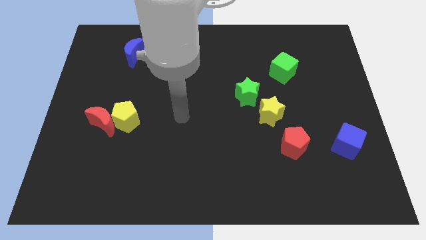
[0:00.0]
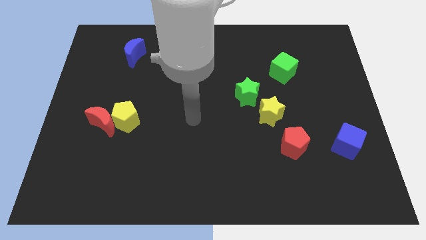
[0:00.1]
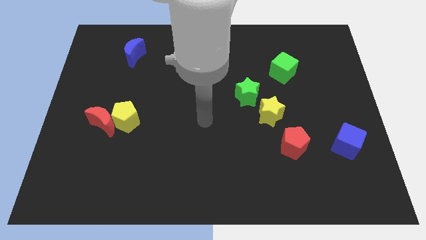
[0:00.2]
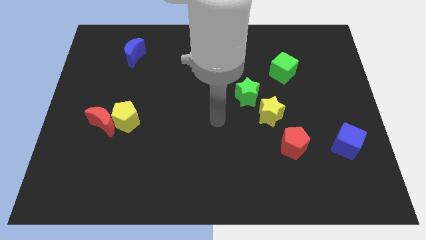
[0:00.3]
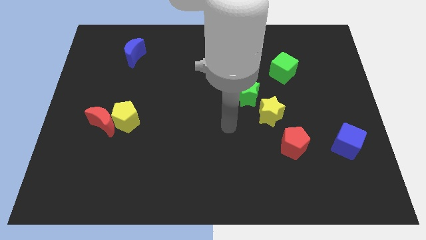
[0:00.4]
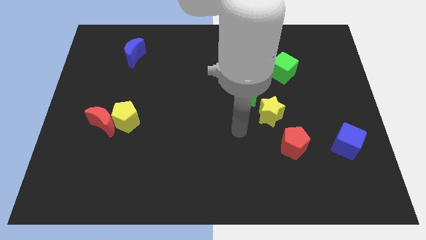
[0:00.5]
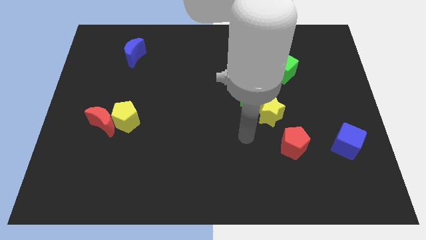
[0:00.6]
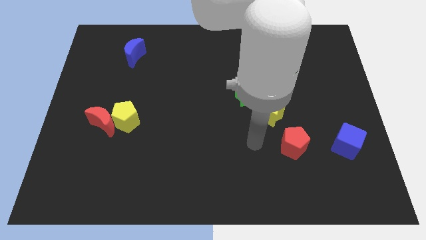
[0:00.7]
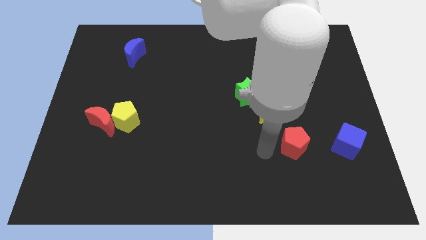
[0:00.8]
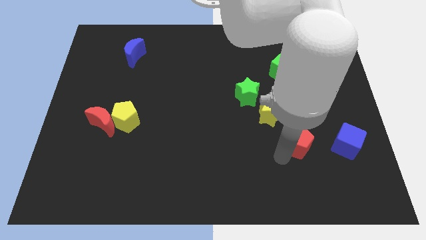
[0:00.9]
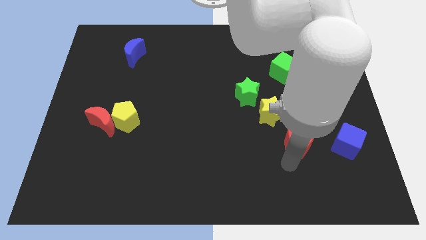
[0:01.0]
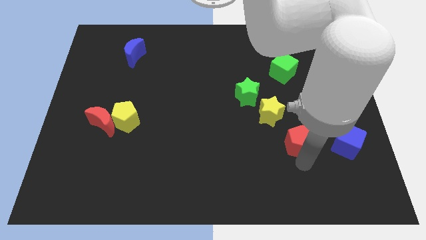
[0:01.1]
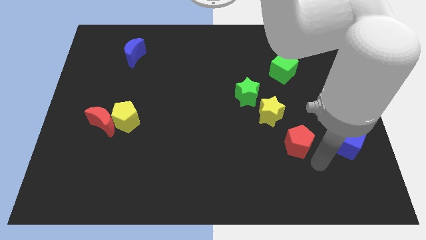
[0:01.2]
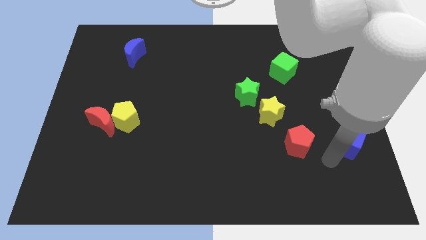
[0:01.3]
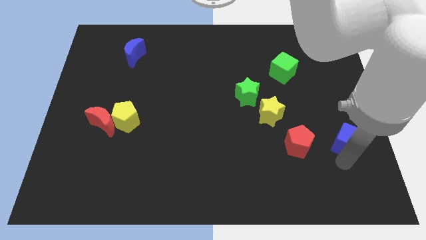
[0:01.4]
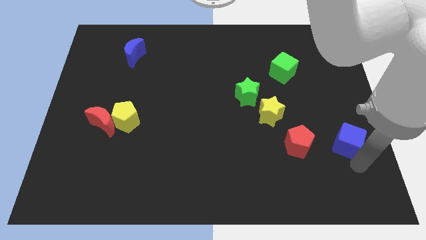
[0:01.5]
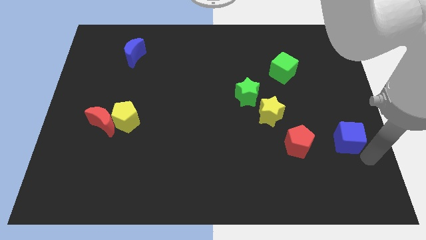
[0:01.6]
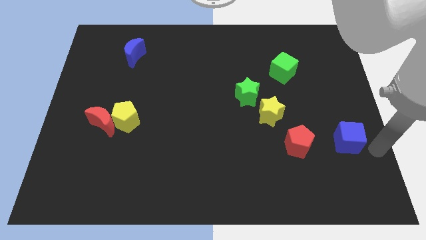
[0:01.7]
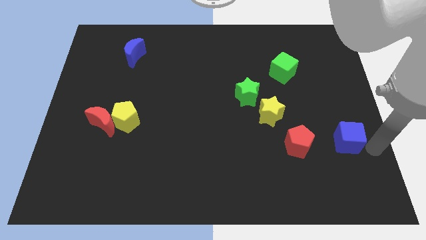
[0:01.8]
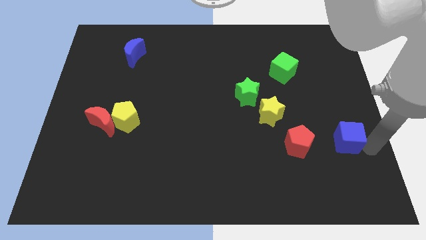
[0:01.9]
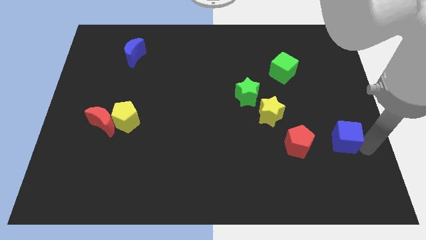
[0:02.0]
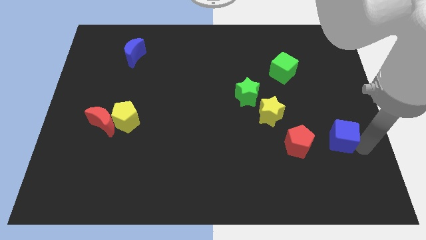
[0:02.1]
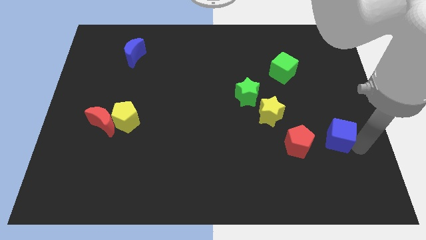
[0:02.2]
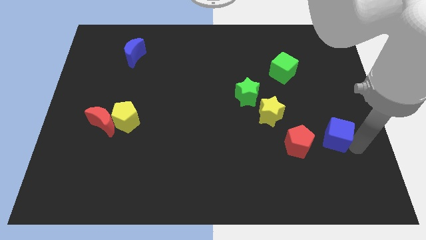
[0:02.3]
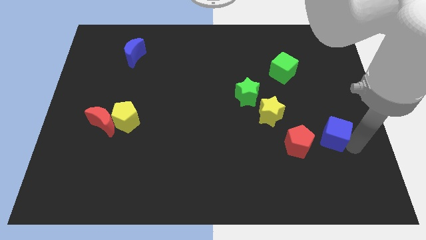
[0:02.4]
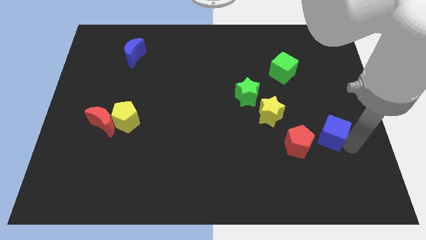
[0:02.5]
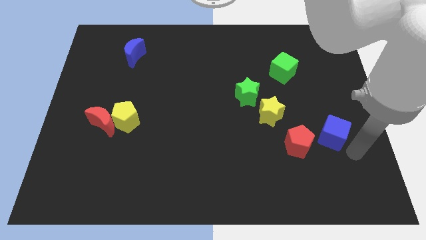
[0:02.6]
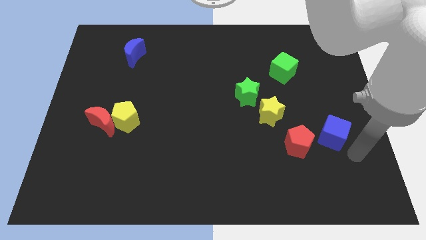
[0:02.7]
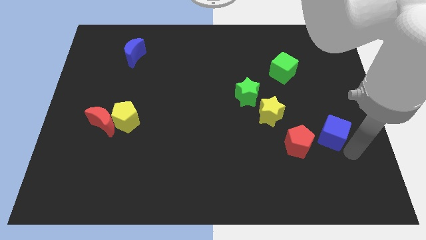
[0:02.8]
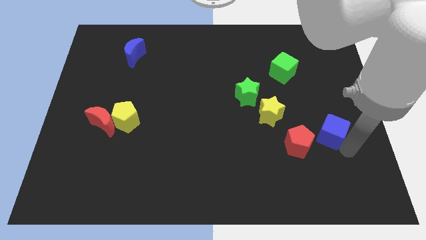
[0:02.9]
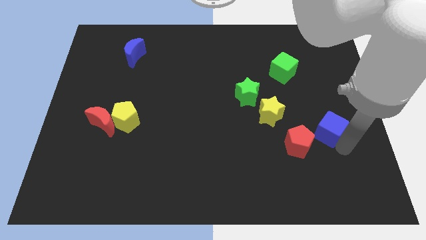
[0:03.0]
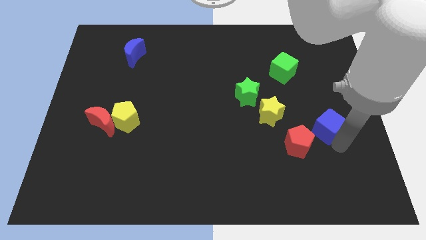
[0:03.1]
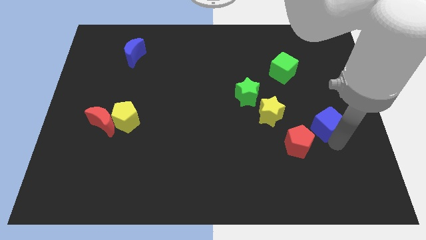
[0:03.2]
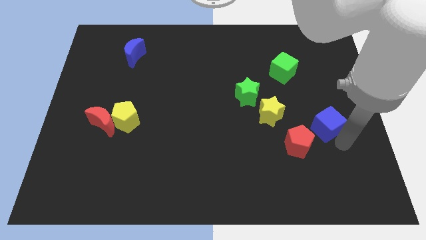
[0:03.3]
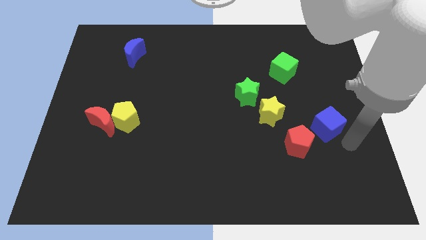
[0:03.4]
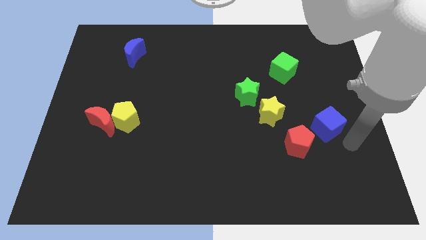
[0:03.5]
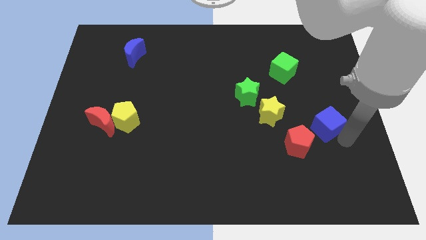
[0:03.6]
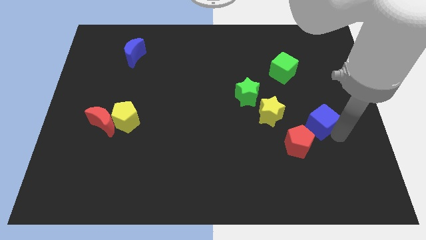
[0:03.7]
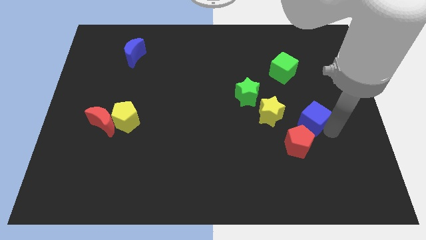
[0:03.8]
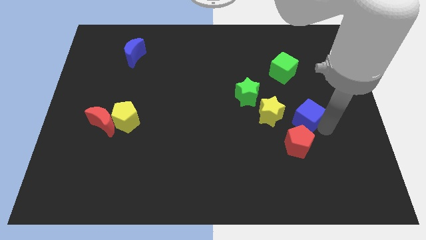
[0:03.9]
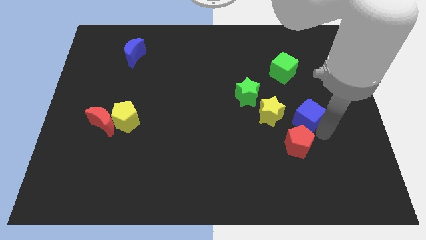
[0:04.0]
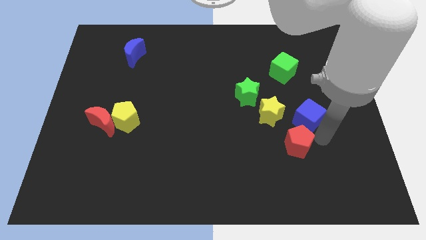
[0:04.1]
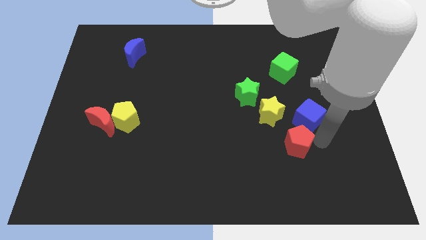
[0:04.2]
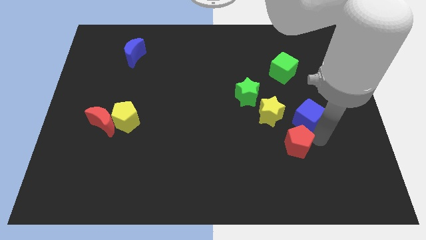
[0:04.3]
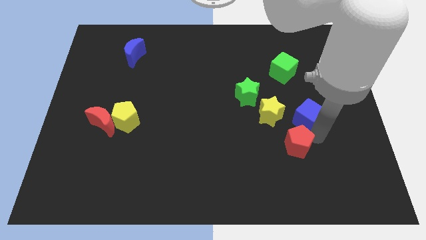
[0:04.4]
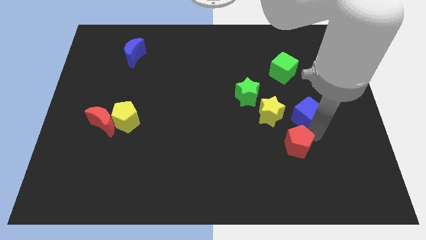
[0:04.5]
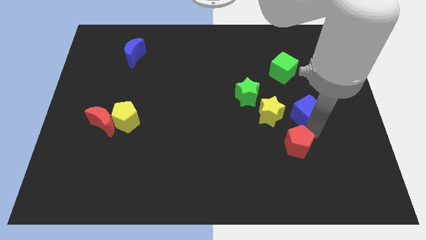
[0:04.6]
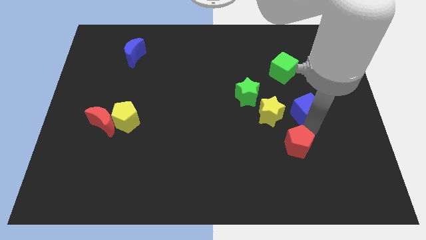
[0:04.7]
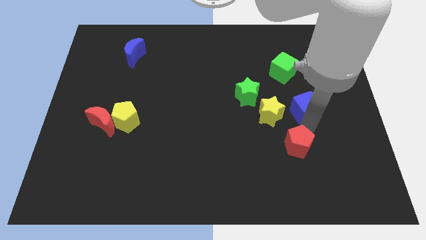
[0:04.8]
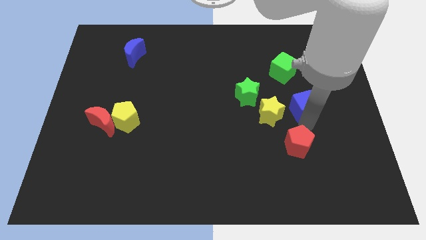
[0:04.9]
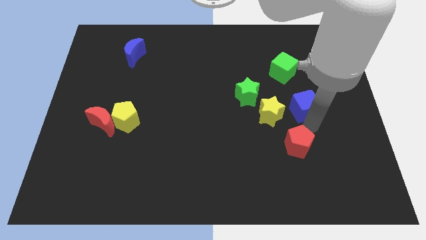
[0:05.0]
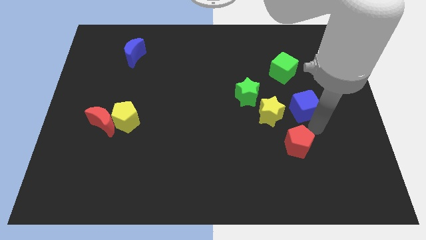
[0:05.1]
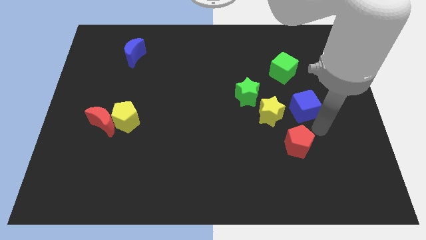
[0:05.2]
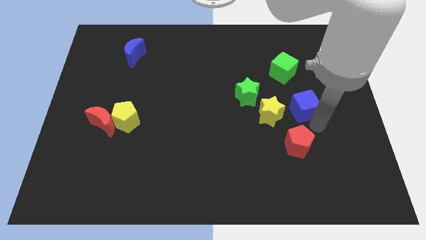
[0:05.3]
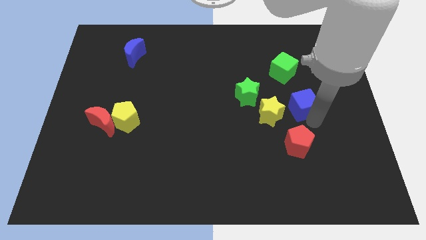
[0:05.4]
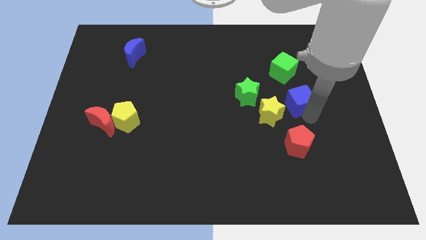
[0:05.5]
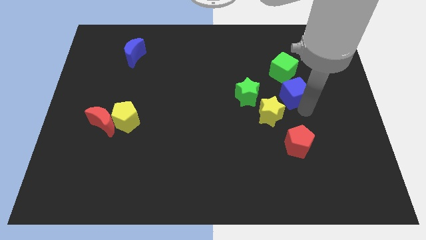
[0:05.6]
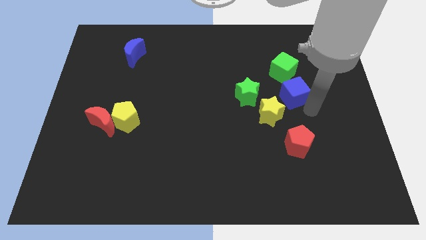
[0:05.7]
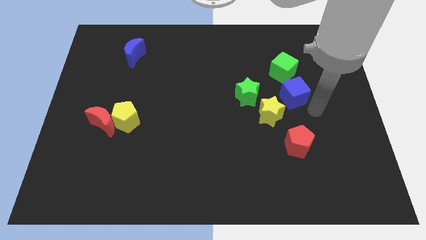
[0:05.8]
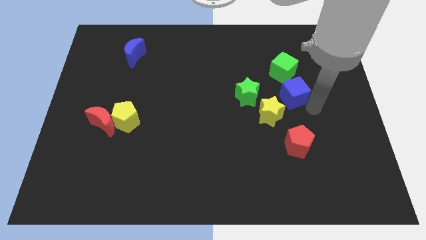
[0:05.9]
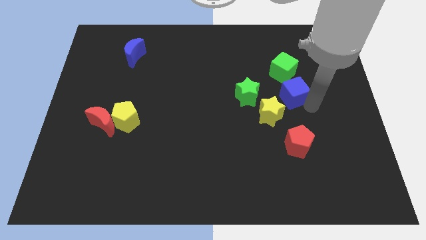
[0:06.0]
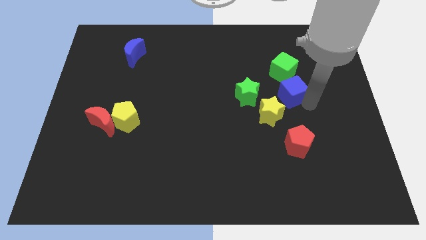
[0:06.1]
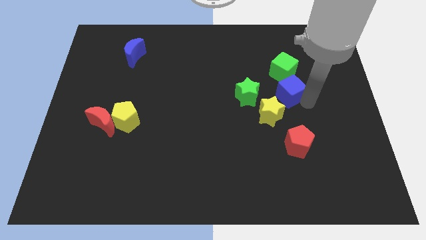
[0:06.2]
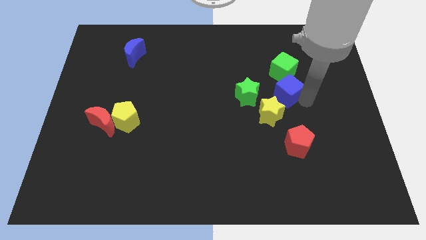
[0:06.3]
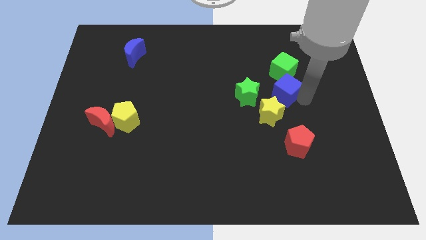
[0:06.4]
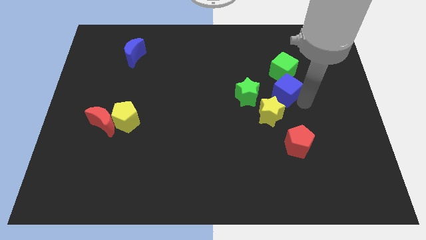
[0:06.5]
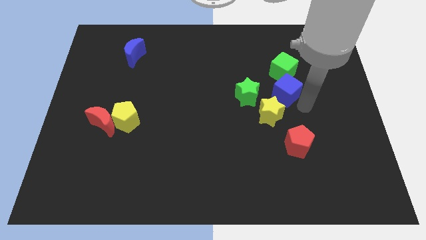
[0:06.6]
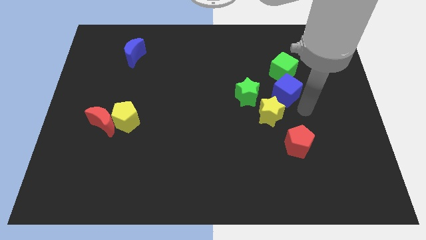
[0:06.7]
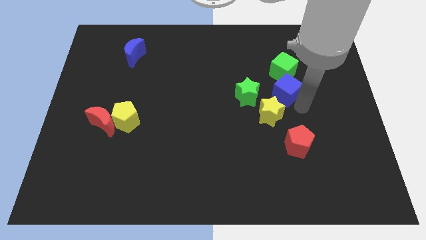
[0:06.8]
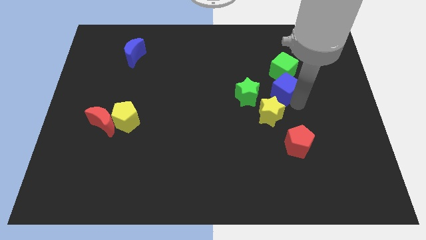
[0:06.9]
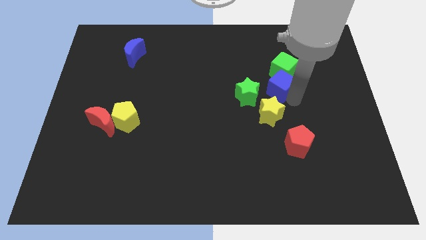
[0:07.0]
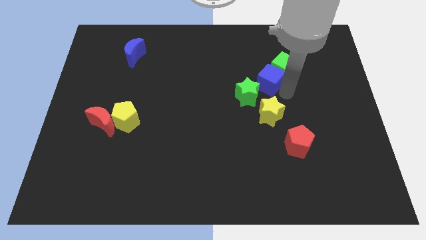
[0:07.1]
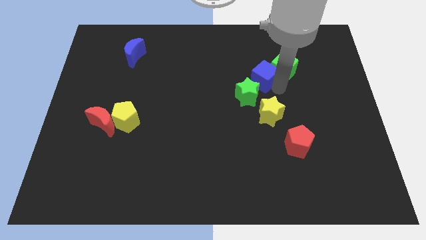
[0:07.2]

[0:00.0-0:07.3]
push the blue cube to the top side of the green star
